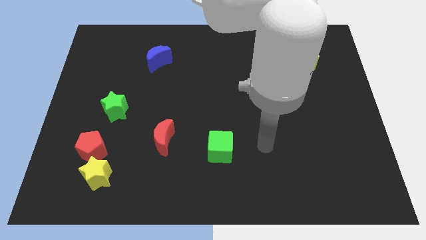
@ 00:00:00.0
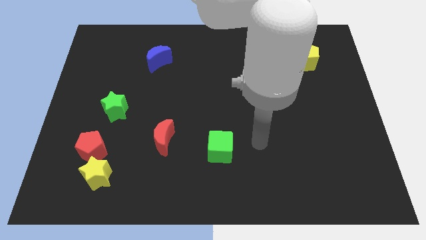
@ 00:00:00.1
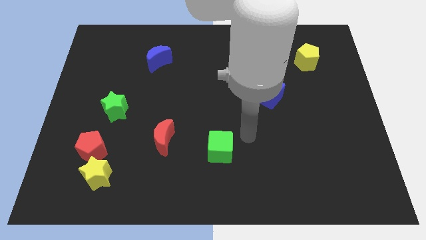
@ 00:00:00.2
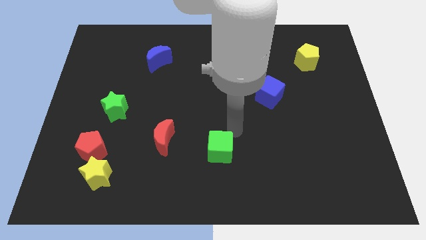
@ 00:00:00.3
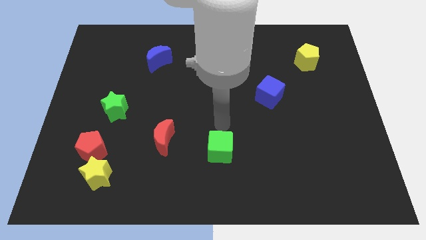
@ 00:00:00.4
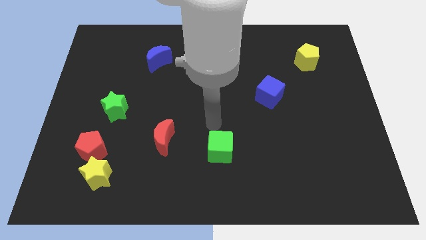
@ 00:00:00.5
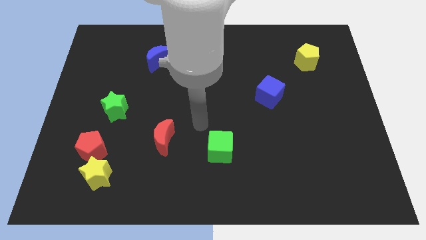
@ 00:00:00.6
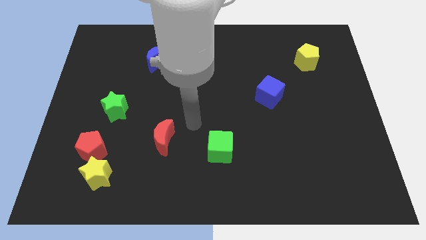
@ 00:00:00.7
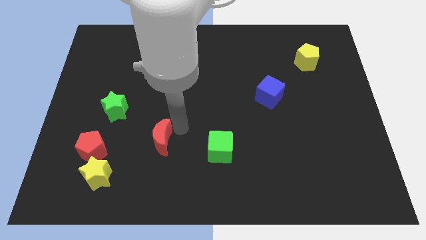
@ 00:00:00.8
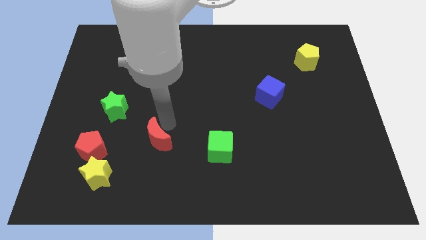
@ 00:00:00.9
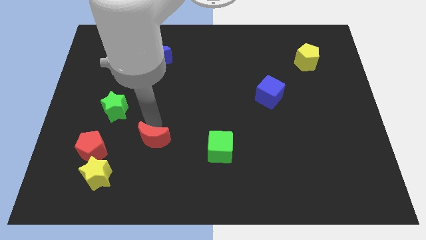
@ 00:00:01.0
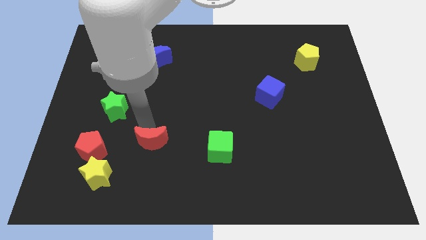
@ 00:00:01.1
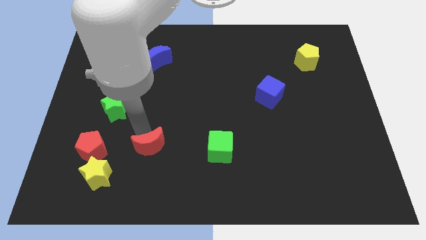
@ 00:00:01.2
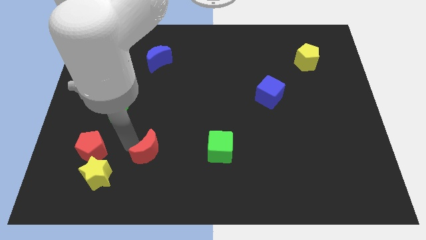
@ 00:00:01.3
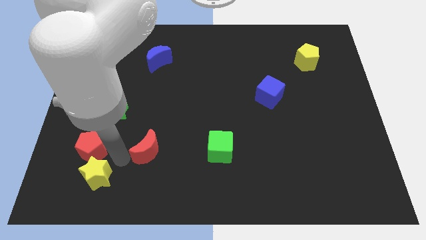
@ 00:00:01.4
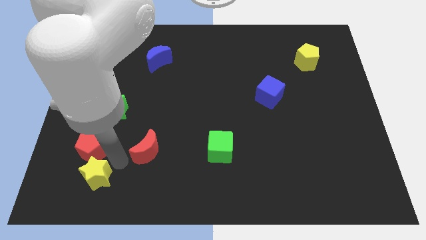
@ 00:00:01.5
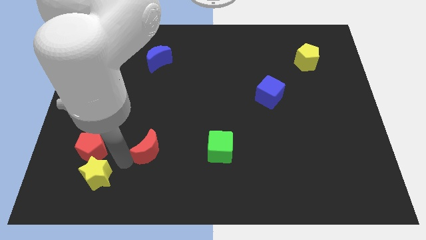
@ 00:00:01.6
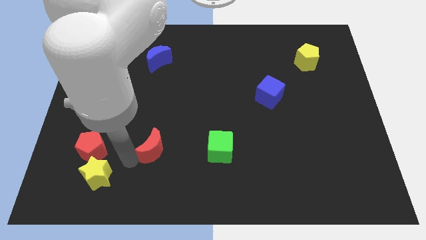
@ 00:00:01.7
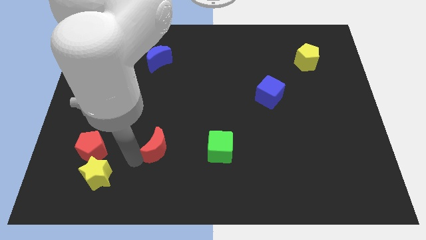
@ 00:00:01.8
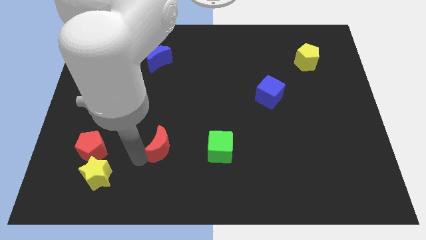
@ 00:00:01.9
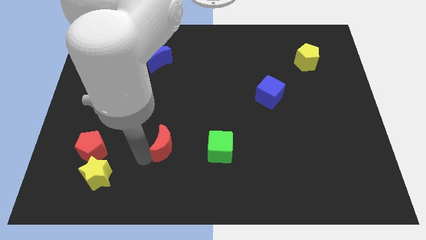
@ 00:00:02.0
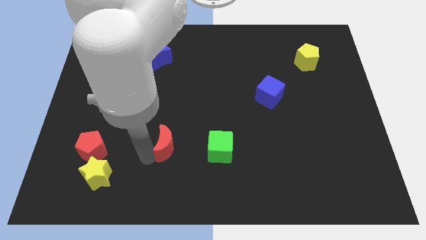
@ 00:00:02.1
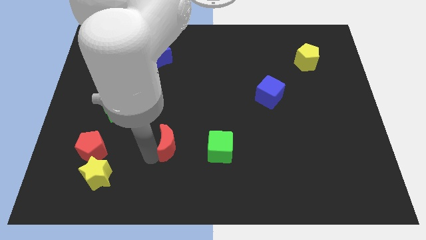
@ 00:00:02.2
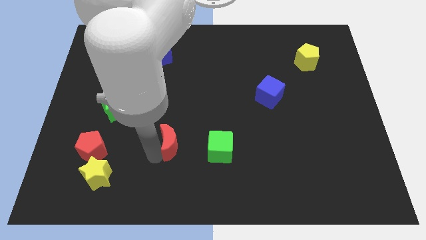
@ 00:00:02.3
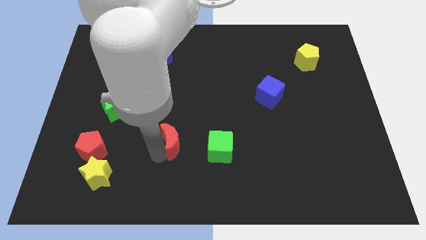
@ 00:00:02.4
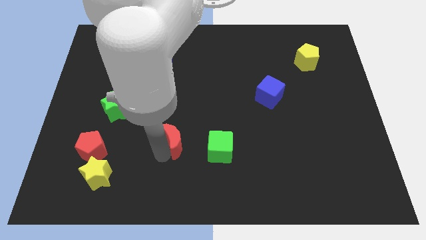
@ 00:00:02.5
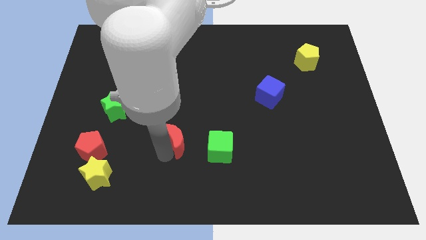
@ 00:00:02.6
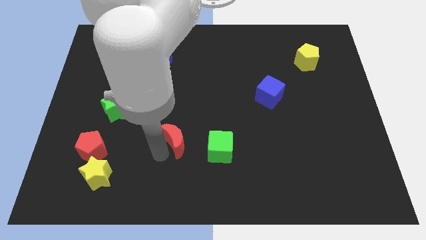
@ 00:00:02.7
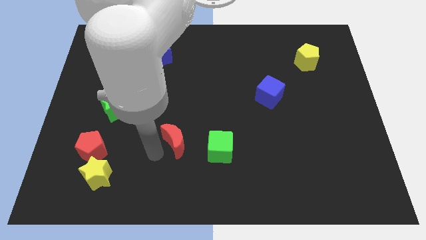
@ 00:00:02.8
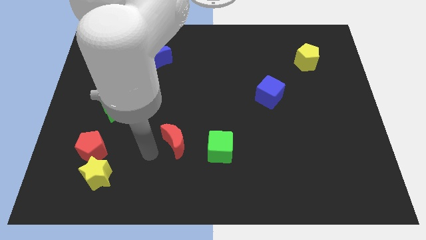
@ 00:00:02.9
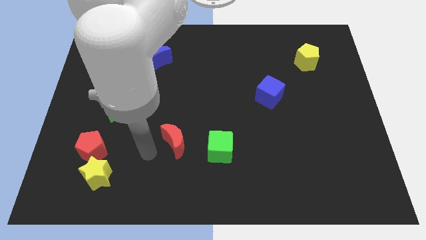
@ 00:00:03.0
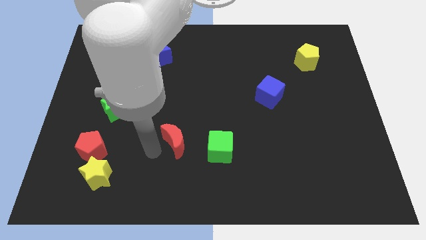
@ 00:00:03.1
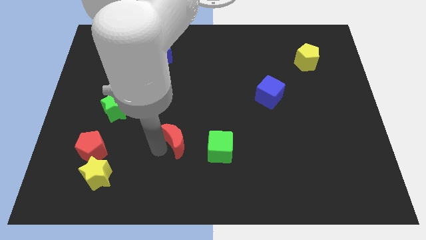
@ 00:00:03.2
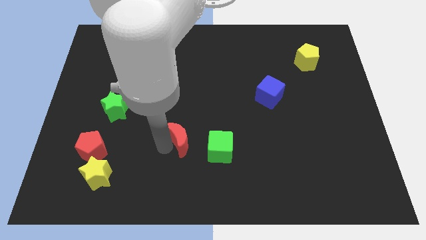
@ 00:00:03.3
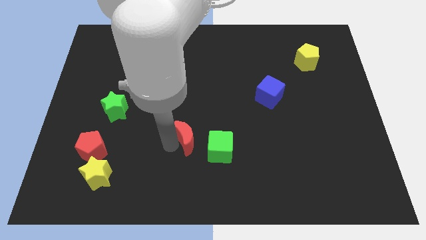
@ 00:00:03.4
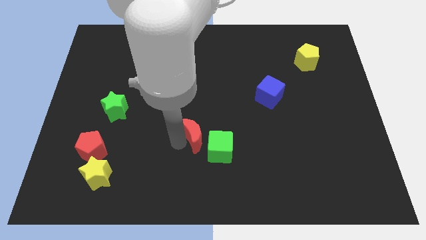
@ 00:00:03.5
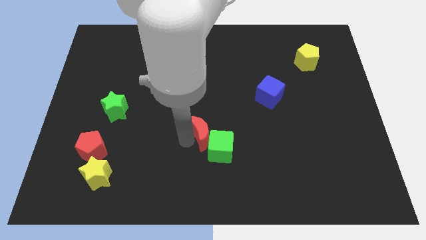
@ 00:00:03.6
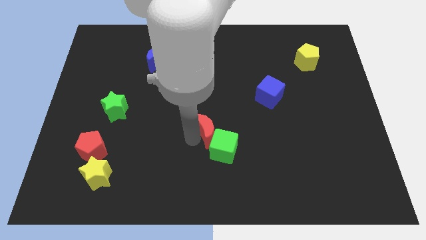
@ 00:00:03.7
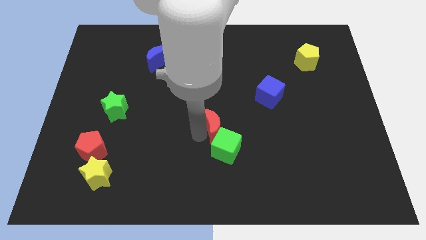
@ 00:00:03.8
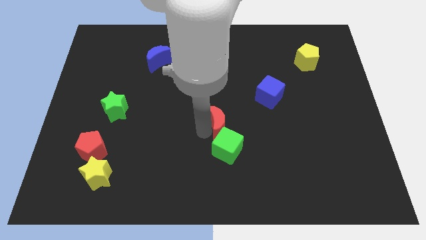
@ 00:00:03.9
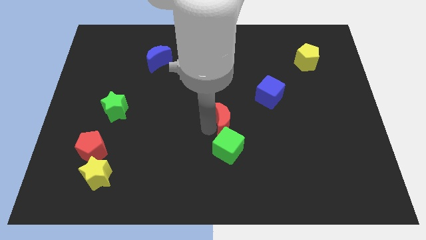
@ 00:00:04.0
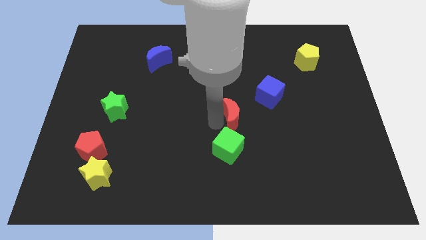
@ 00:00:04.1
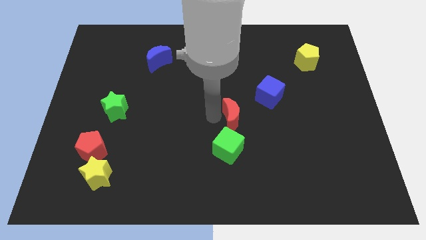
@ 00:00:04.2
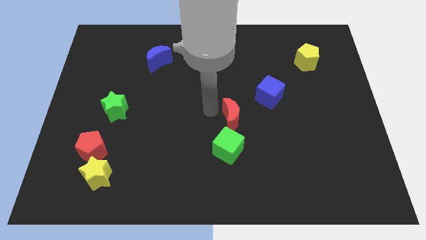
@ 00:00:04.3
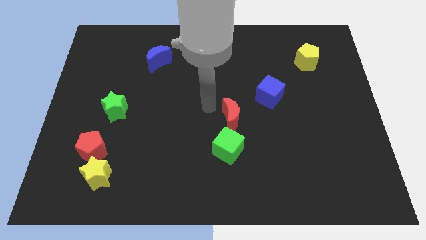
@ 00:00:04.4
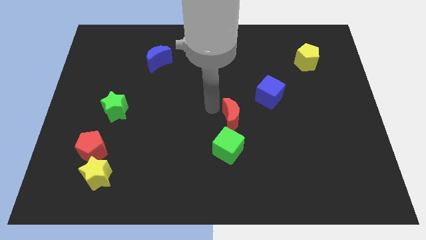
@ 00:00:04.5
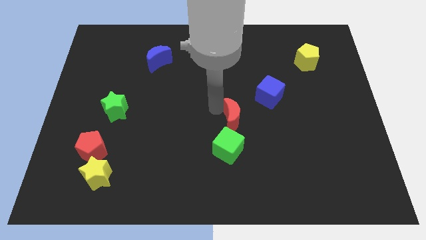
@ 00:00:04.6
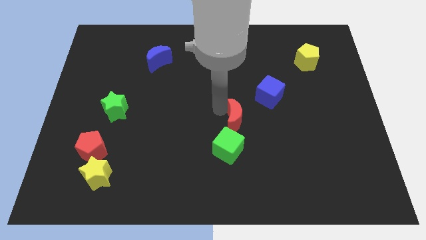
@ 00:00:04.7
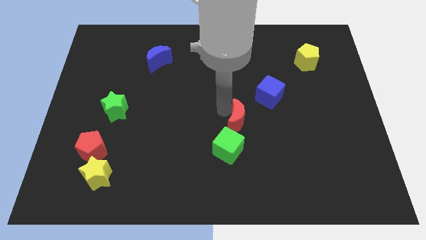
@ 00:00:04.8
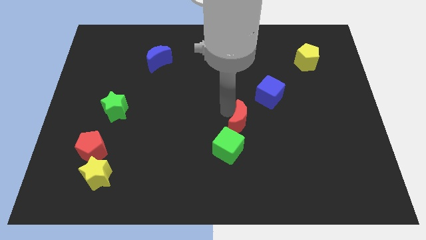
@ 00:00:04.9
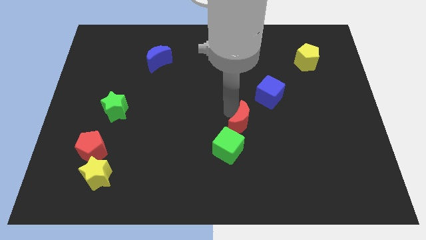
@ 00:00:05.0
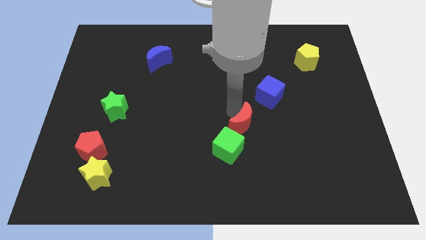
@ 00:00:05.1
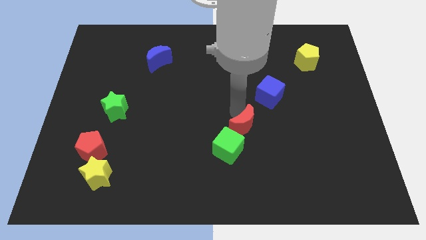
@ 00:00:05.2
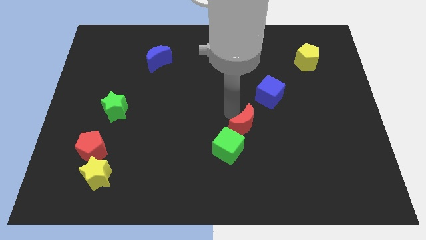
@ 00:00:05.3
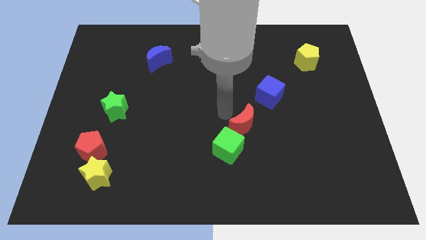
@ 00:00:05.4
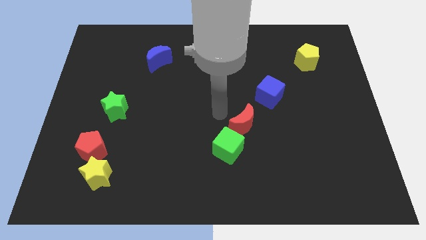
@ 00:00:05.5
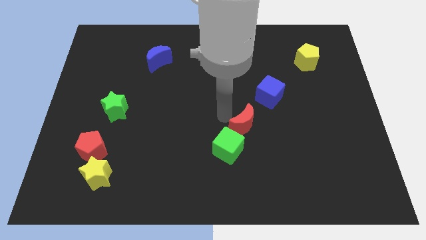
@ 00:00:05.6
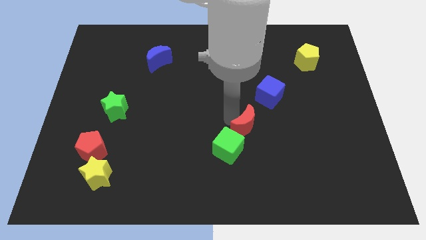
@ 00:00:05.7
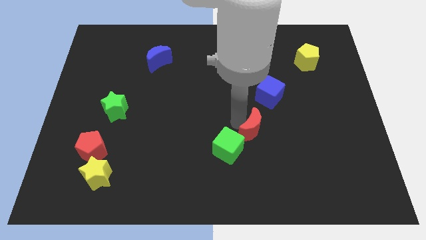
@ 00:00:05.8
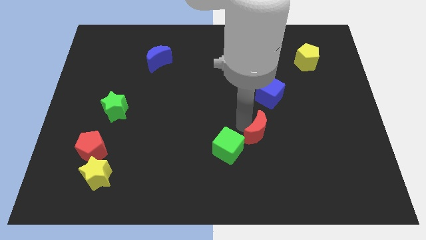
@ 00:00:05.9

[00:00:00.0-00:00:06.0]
move the red moon right

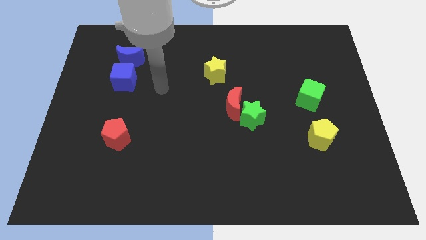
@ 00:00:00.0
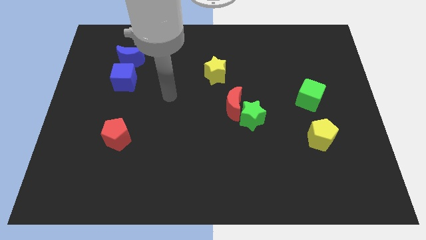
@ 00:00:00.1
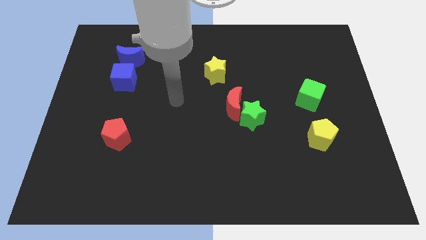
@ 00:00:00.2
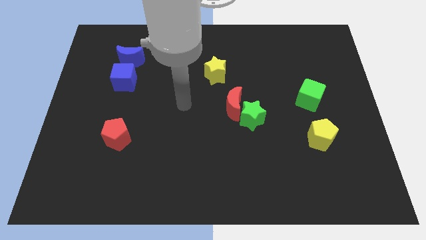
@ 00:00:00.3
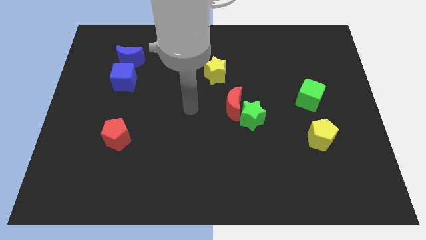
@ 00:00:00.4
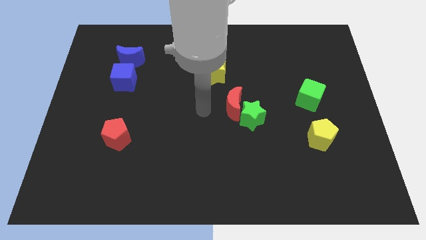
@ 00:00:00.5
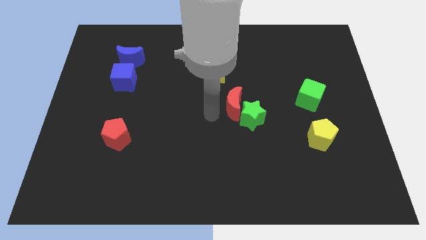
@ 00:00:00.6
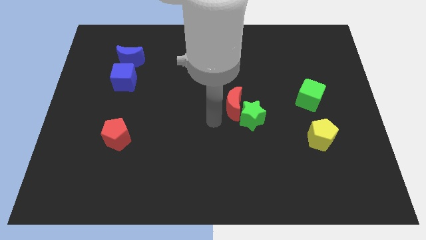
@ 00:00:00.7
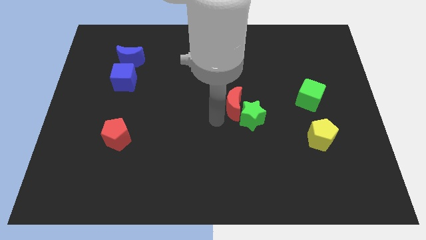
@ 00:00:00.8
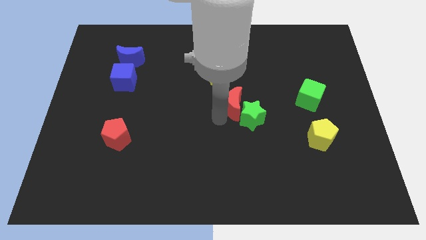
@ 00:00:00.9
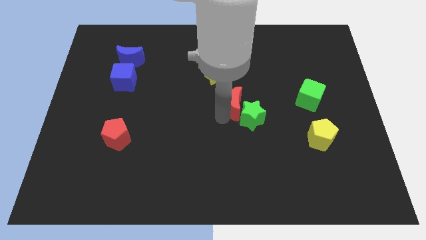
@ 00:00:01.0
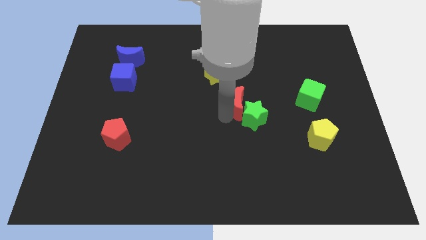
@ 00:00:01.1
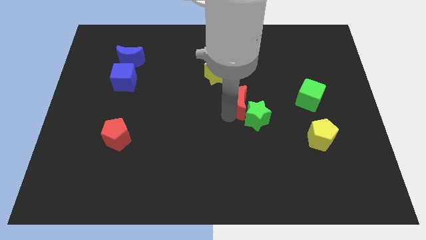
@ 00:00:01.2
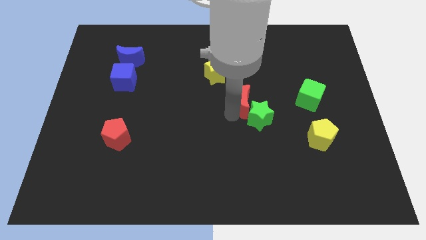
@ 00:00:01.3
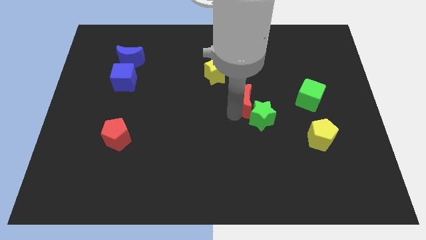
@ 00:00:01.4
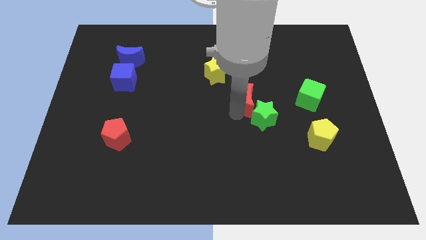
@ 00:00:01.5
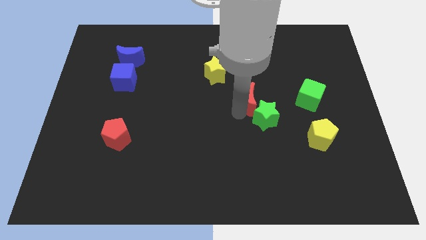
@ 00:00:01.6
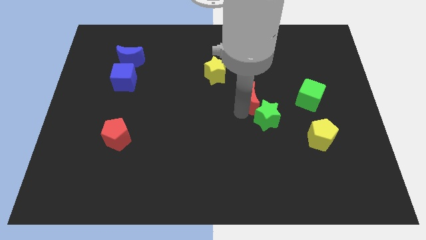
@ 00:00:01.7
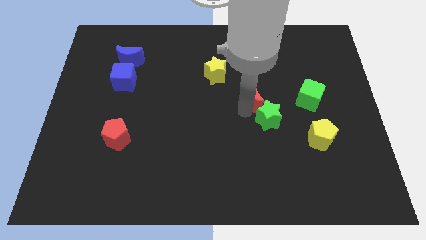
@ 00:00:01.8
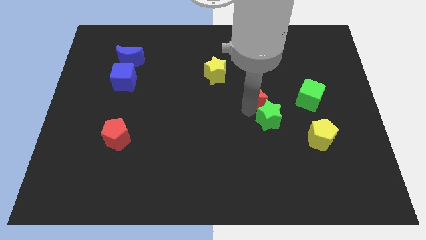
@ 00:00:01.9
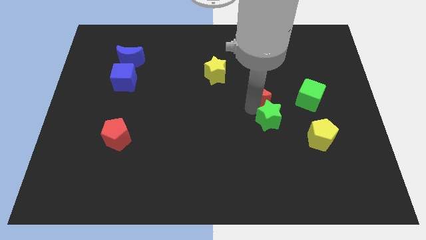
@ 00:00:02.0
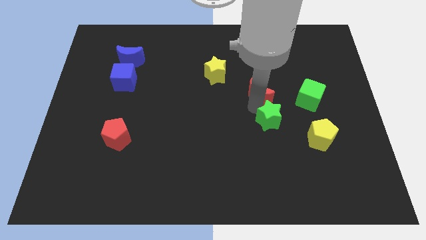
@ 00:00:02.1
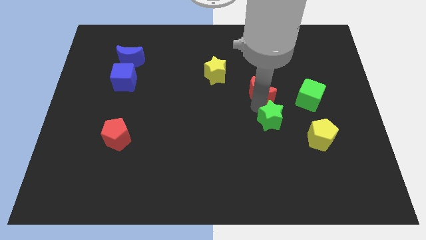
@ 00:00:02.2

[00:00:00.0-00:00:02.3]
push the red moon diagonally up and right somewhat

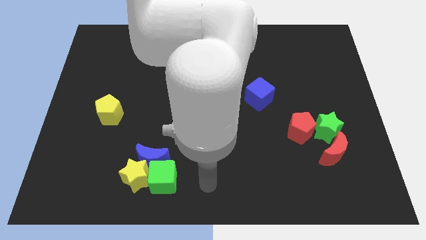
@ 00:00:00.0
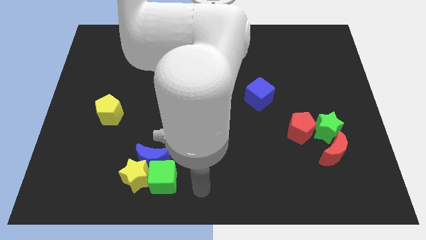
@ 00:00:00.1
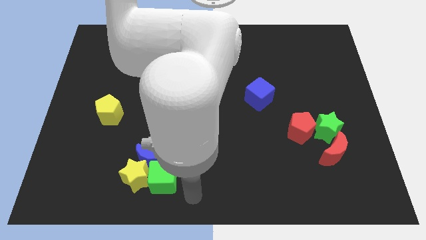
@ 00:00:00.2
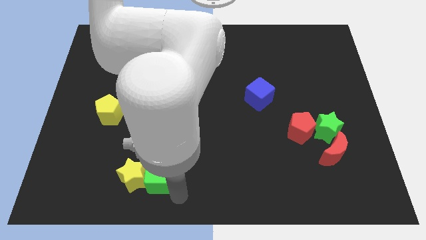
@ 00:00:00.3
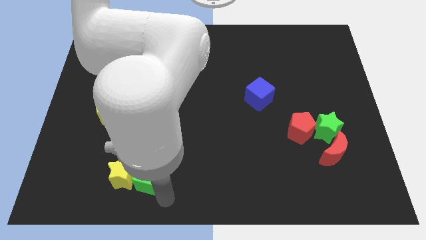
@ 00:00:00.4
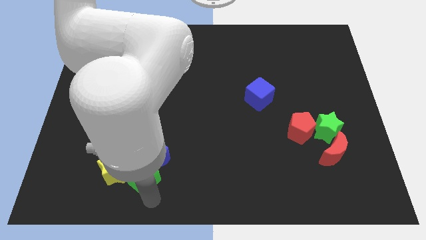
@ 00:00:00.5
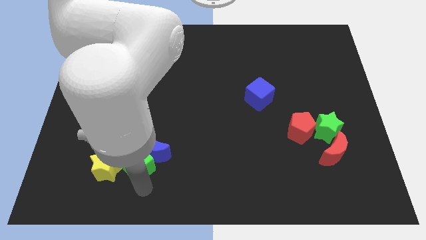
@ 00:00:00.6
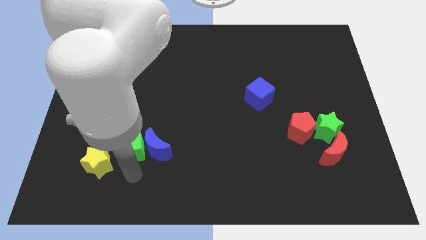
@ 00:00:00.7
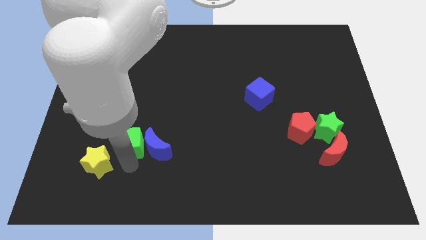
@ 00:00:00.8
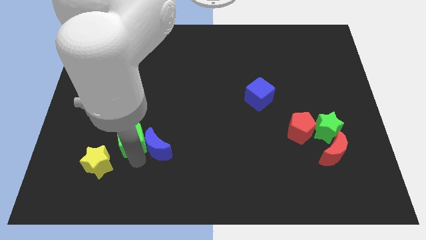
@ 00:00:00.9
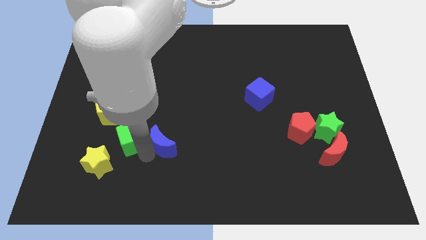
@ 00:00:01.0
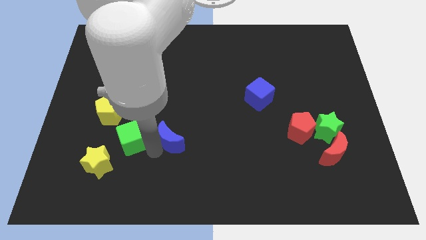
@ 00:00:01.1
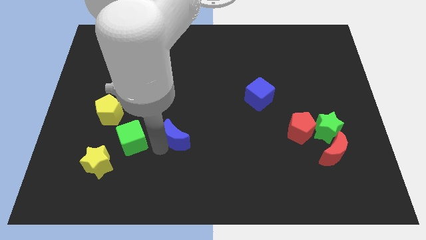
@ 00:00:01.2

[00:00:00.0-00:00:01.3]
slightly slide the blue moon up and right
